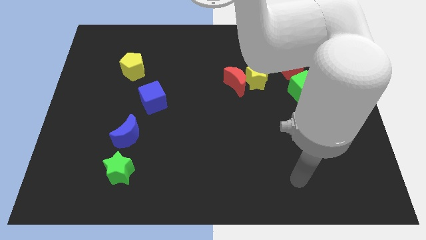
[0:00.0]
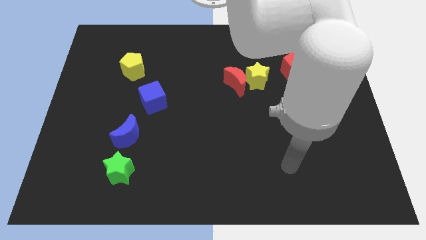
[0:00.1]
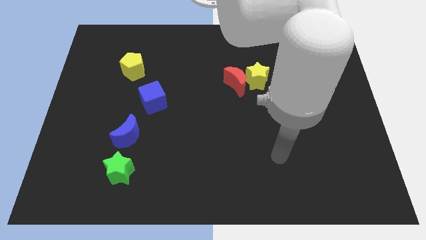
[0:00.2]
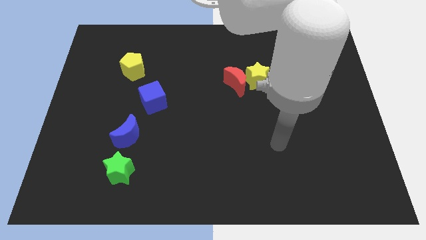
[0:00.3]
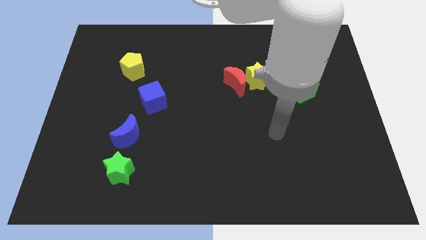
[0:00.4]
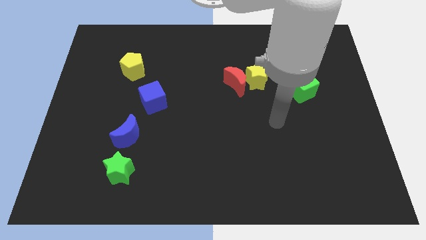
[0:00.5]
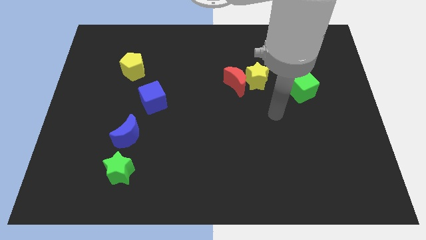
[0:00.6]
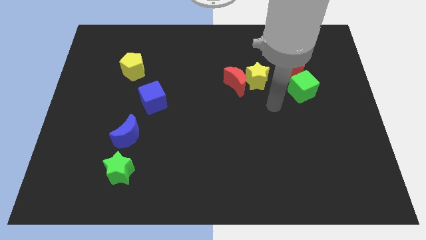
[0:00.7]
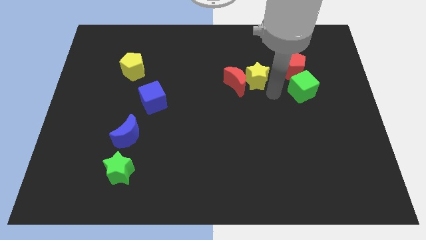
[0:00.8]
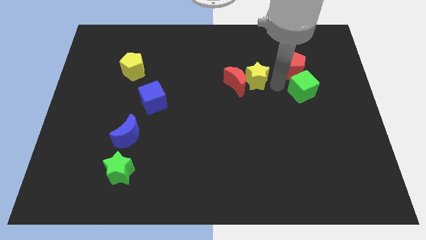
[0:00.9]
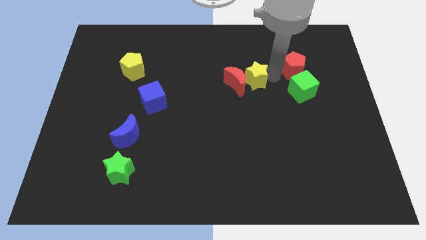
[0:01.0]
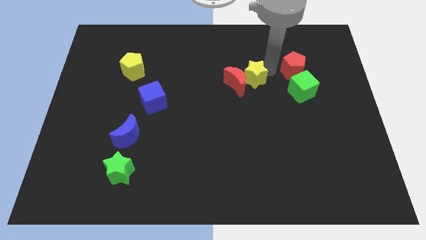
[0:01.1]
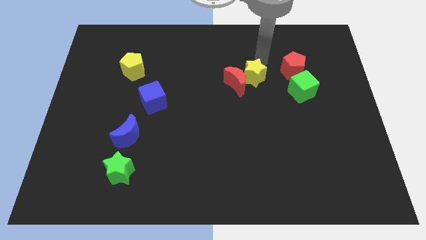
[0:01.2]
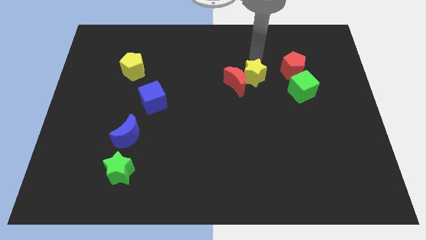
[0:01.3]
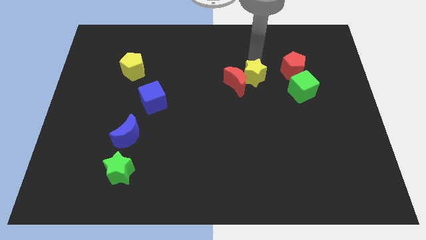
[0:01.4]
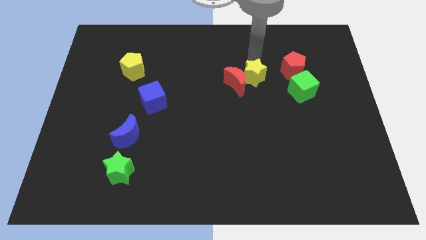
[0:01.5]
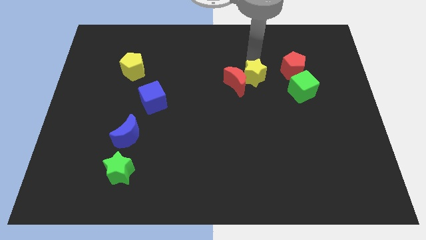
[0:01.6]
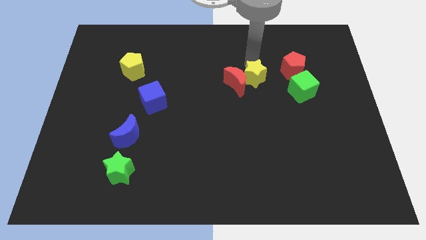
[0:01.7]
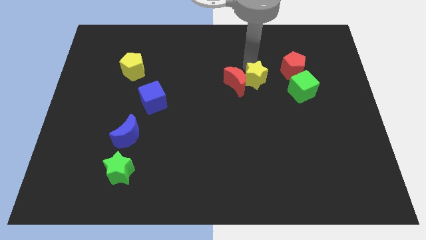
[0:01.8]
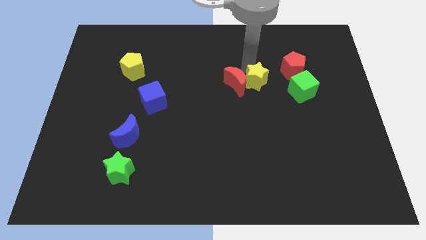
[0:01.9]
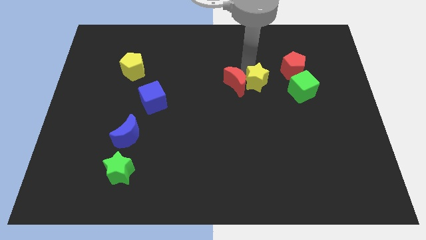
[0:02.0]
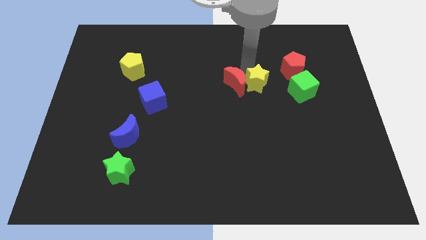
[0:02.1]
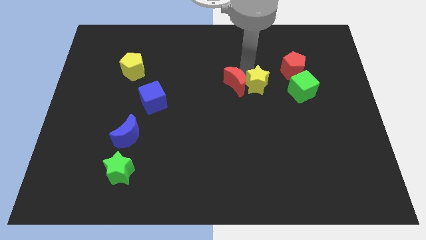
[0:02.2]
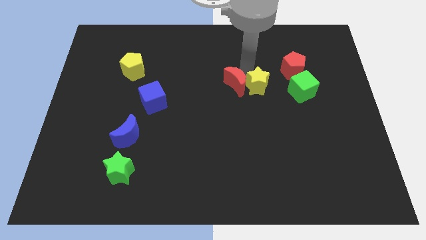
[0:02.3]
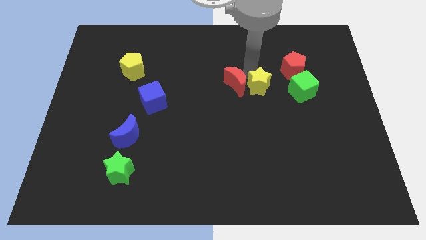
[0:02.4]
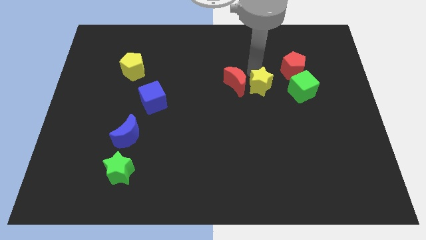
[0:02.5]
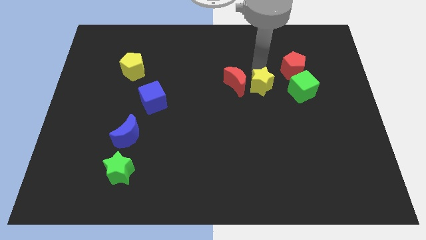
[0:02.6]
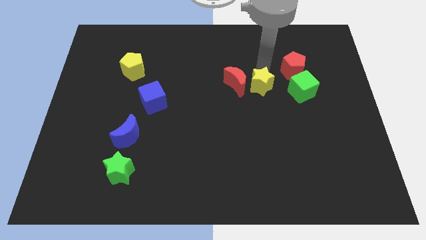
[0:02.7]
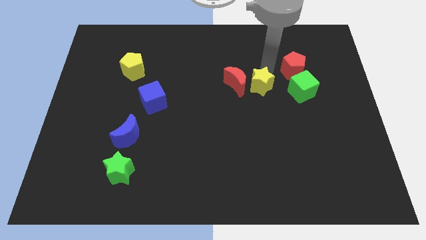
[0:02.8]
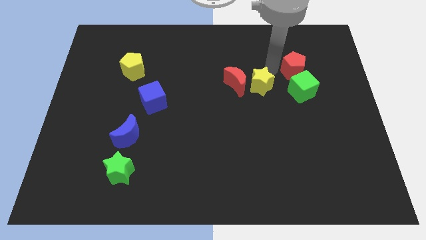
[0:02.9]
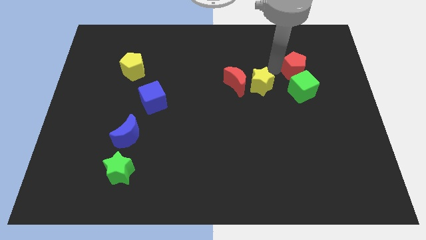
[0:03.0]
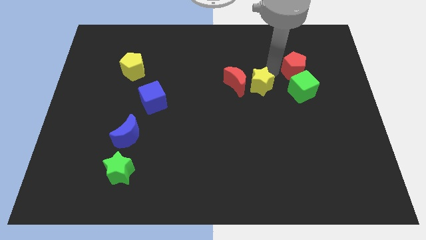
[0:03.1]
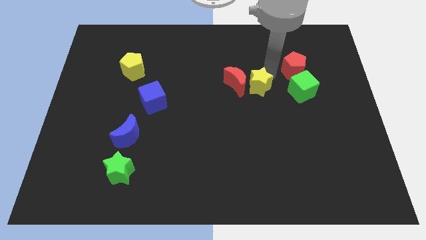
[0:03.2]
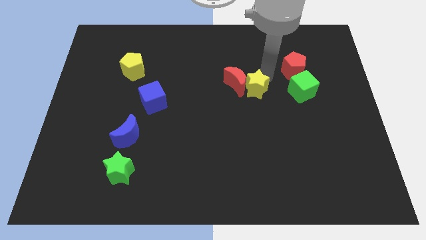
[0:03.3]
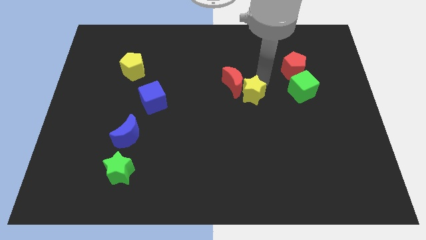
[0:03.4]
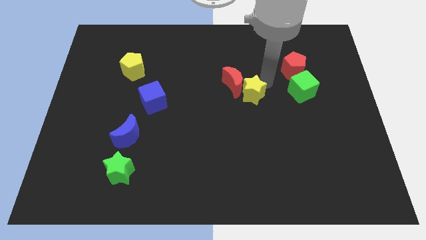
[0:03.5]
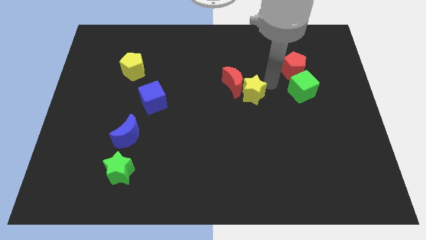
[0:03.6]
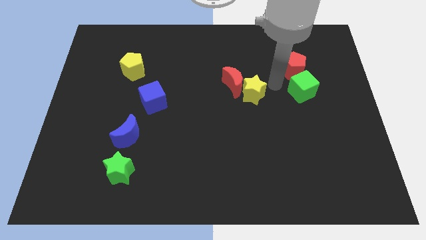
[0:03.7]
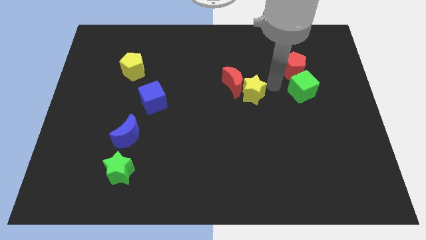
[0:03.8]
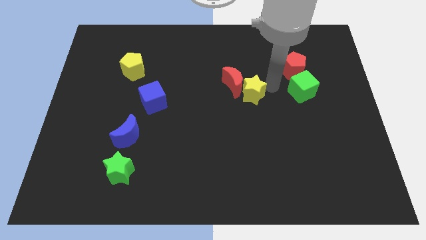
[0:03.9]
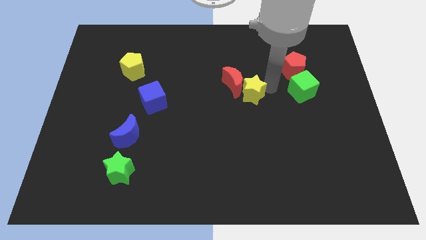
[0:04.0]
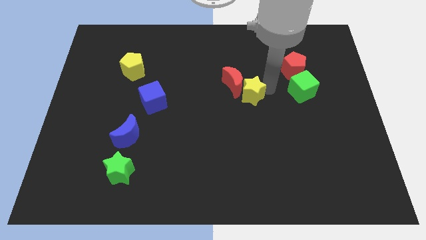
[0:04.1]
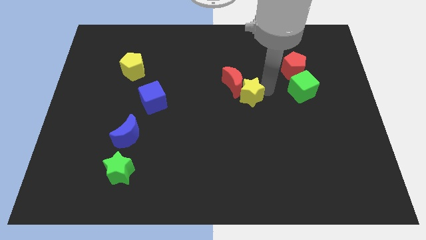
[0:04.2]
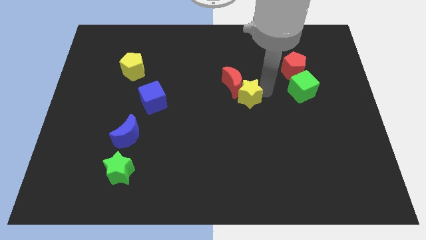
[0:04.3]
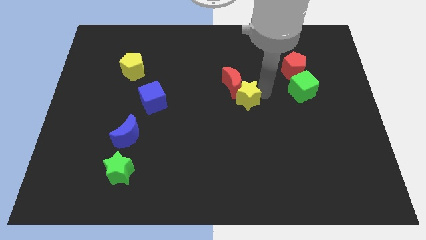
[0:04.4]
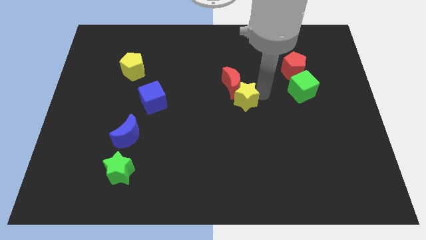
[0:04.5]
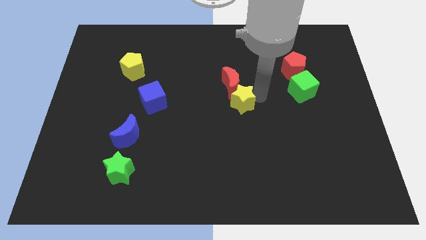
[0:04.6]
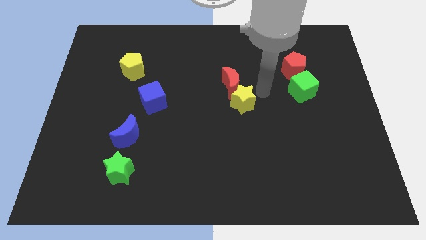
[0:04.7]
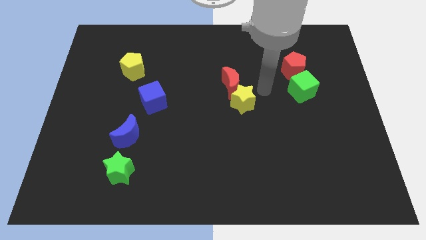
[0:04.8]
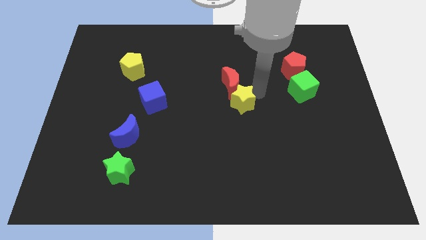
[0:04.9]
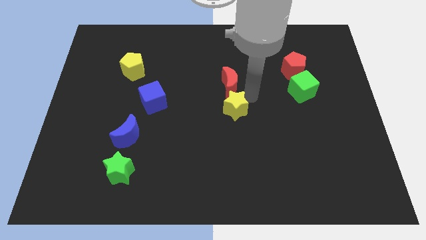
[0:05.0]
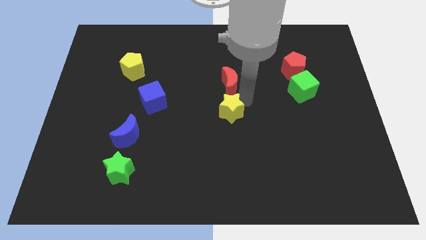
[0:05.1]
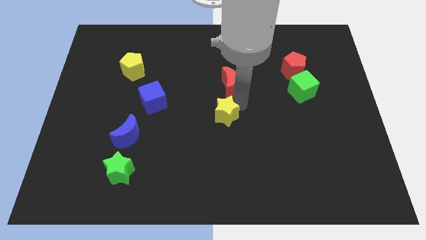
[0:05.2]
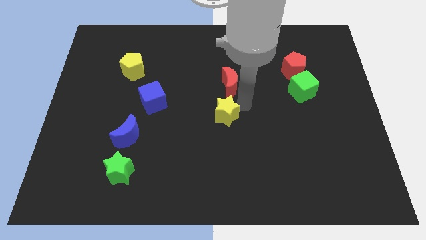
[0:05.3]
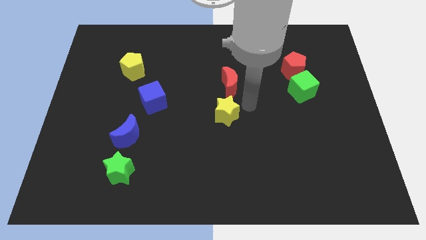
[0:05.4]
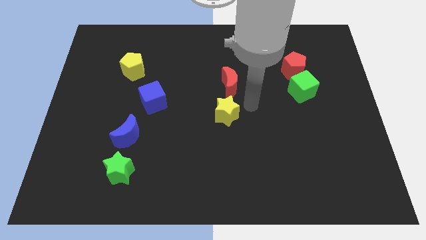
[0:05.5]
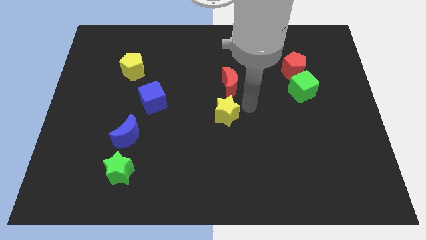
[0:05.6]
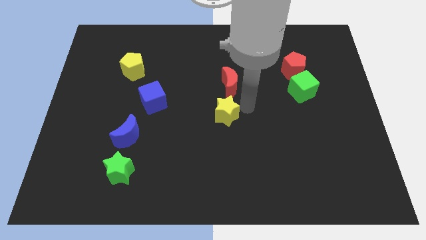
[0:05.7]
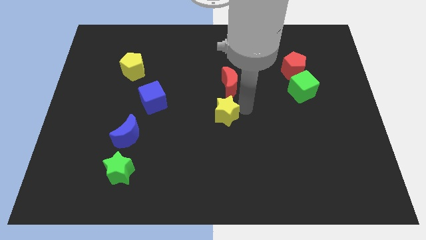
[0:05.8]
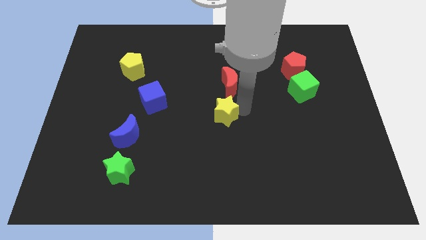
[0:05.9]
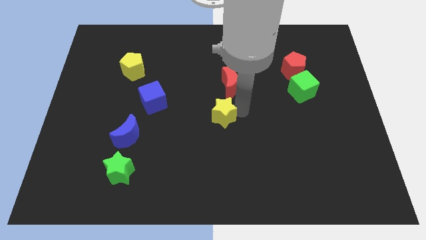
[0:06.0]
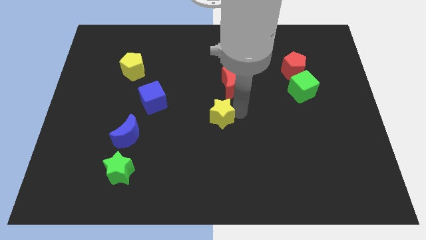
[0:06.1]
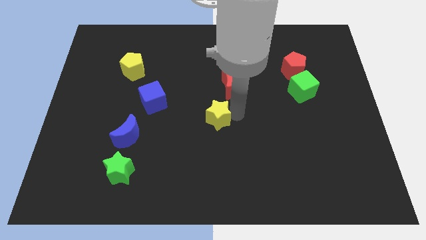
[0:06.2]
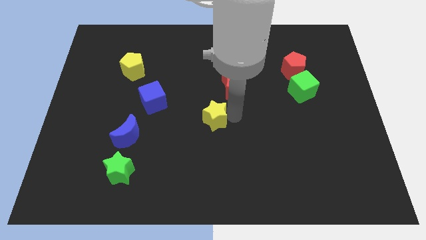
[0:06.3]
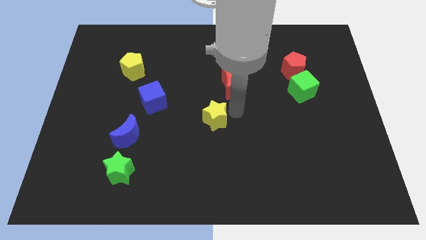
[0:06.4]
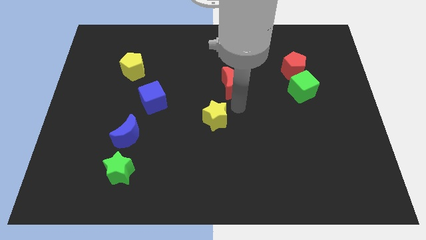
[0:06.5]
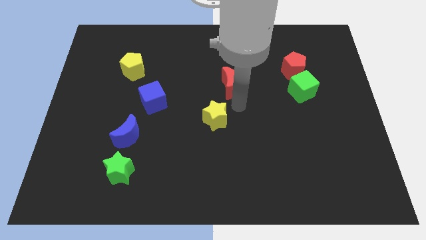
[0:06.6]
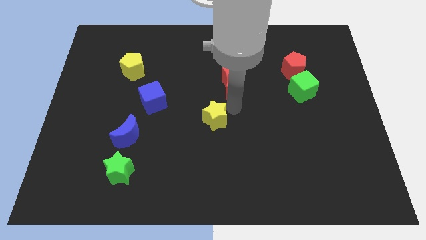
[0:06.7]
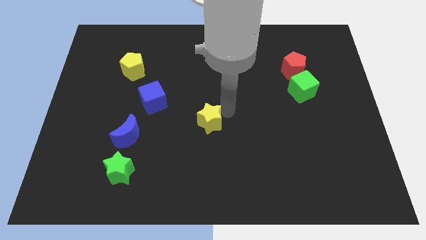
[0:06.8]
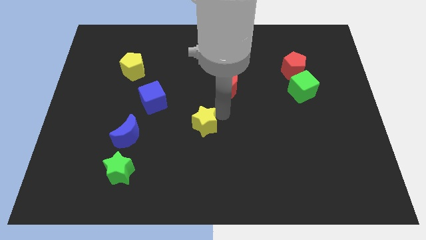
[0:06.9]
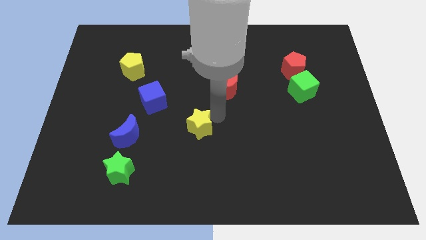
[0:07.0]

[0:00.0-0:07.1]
push the yellow star down and to the left

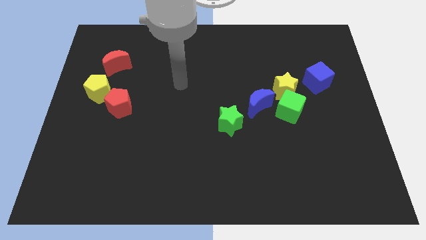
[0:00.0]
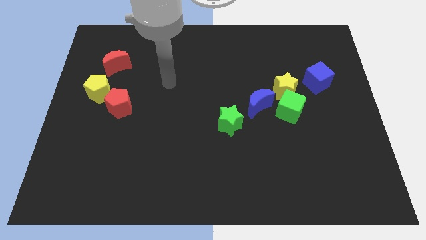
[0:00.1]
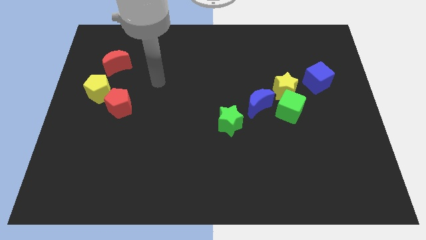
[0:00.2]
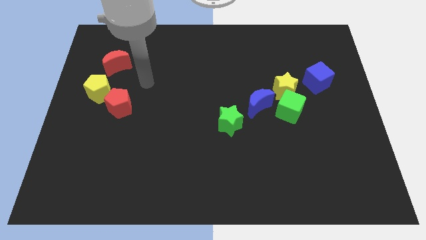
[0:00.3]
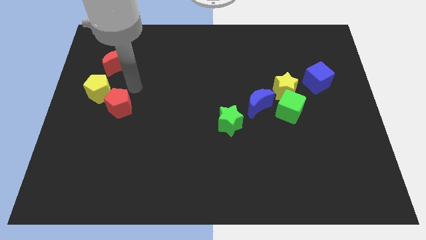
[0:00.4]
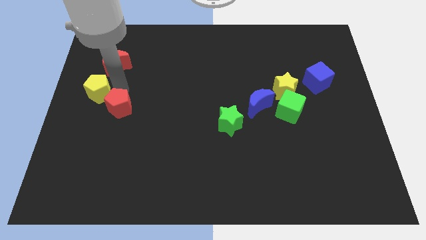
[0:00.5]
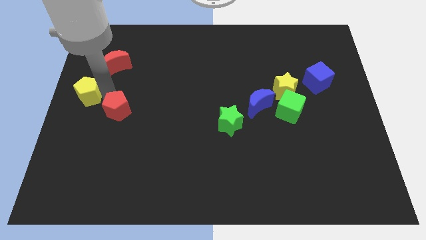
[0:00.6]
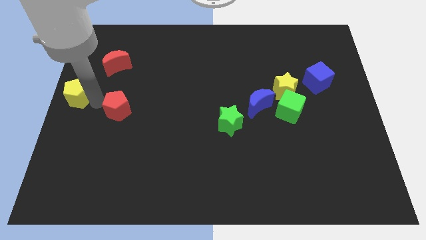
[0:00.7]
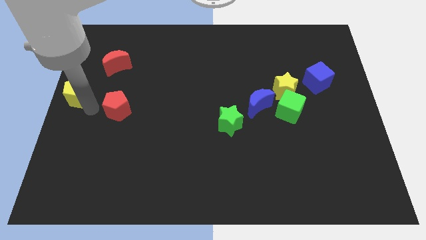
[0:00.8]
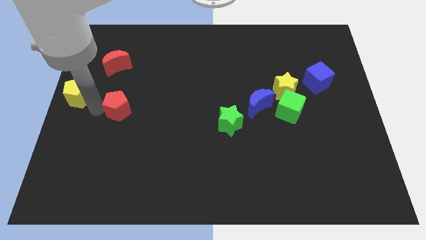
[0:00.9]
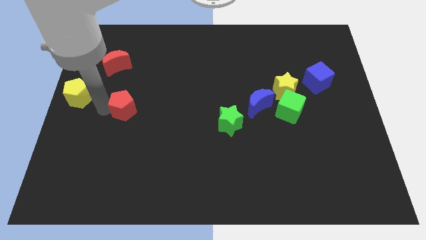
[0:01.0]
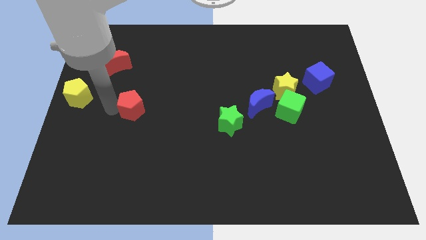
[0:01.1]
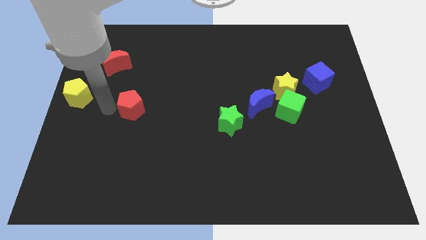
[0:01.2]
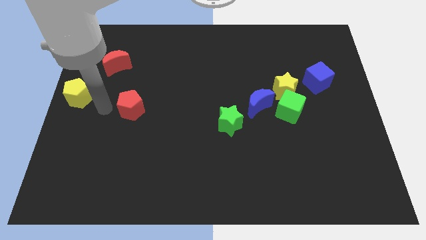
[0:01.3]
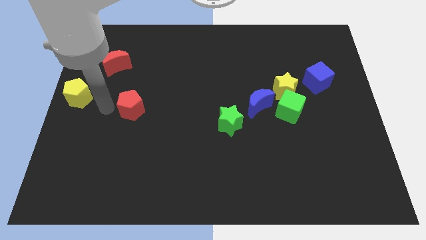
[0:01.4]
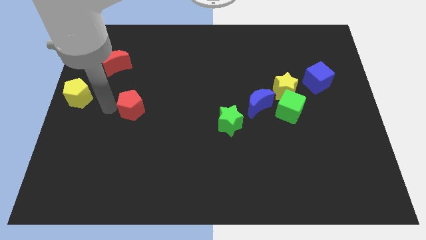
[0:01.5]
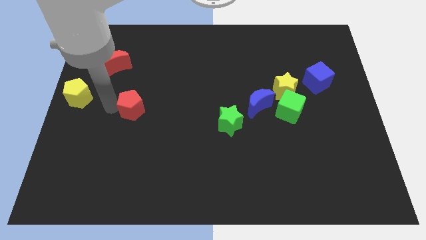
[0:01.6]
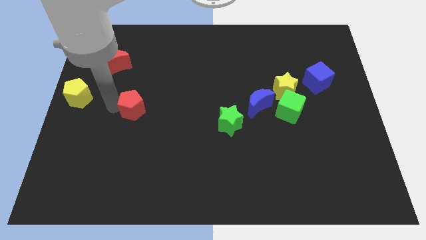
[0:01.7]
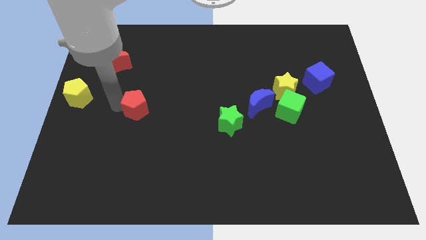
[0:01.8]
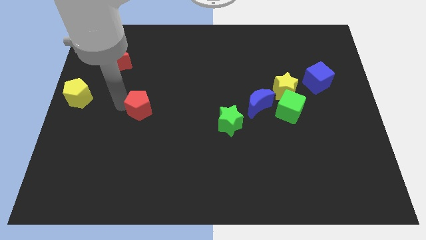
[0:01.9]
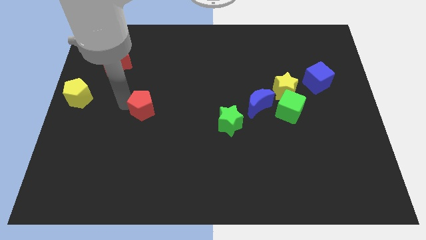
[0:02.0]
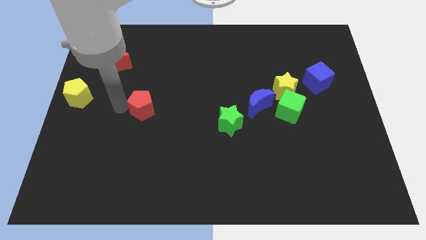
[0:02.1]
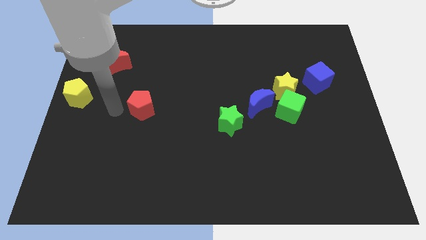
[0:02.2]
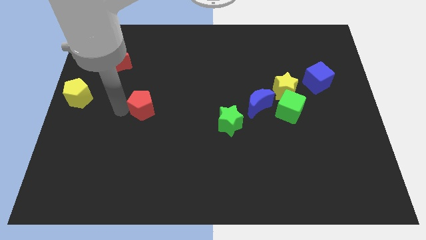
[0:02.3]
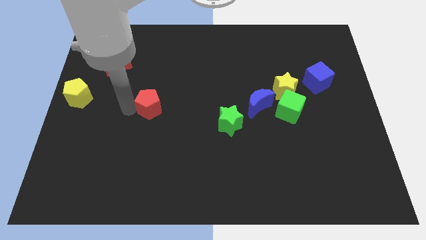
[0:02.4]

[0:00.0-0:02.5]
slide the red pentagon slightly right
